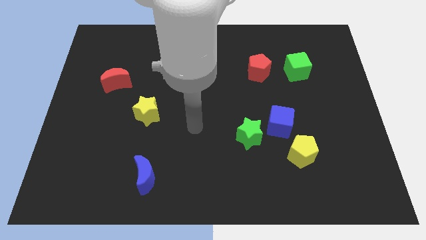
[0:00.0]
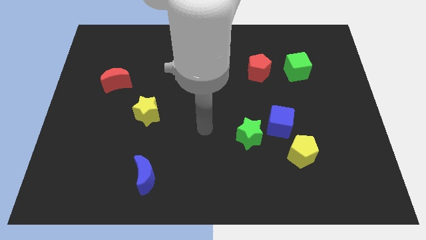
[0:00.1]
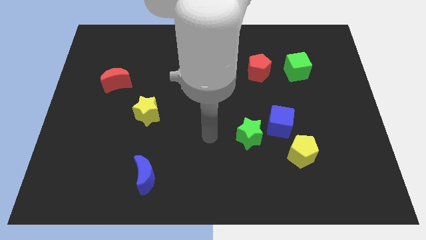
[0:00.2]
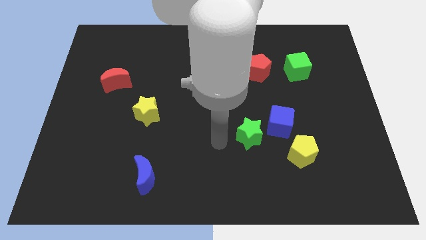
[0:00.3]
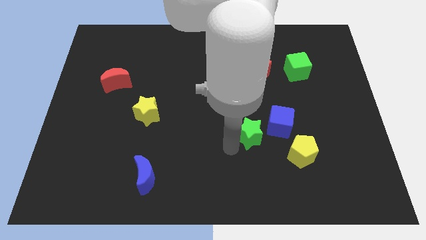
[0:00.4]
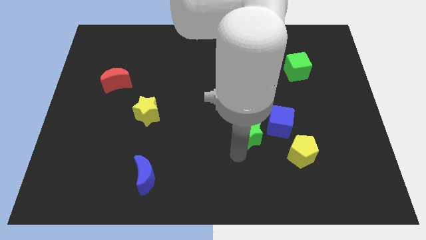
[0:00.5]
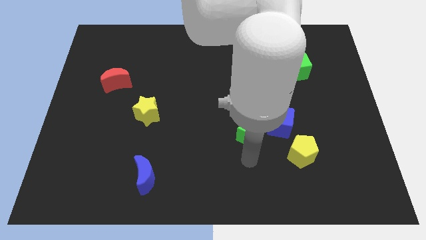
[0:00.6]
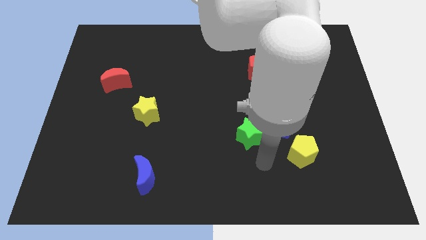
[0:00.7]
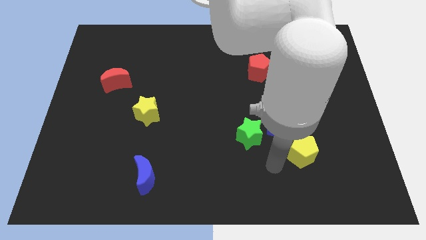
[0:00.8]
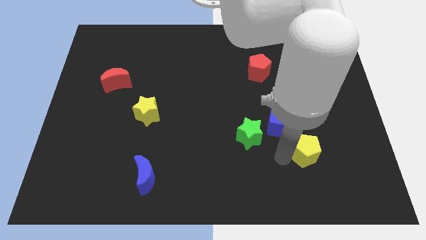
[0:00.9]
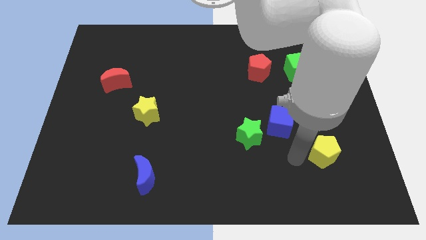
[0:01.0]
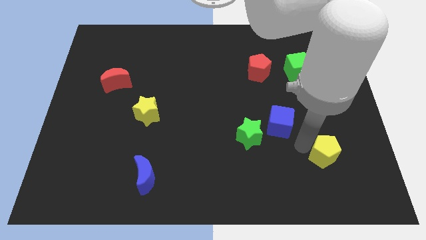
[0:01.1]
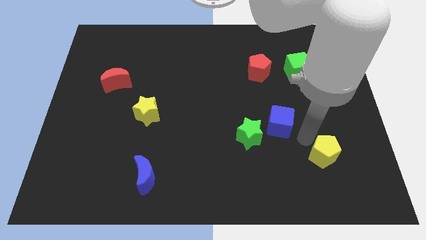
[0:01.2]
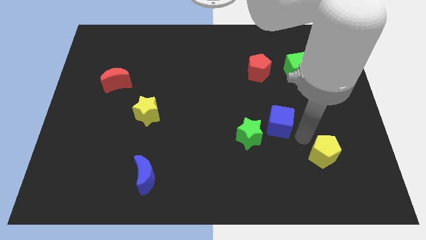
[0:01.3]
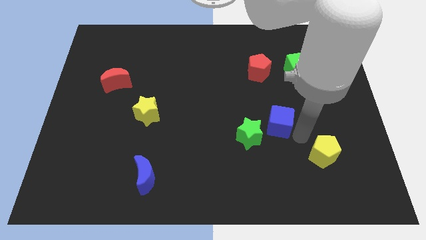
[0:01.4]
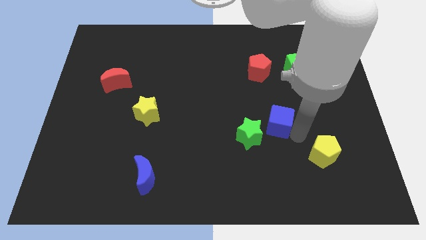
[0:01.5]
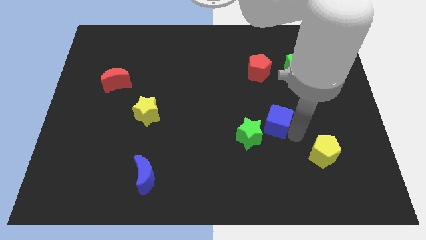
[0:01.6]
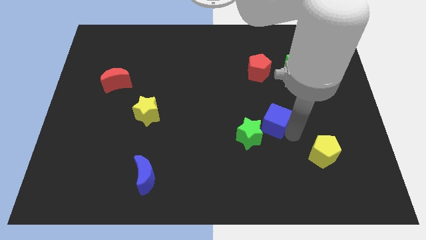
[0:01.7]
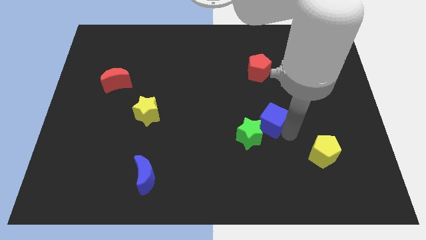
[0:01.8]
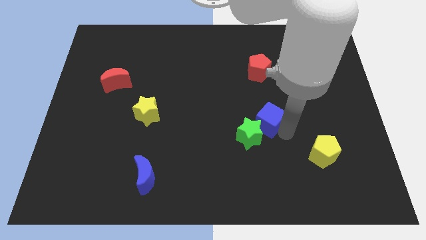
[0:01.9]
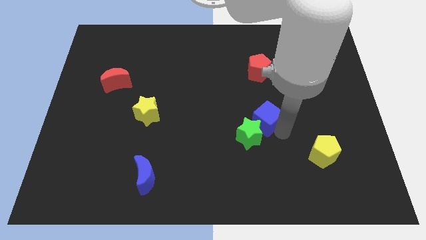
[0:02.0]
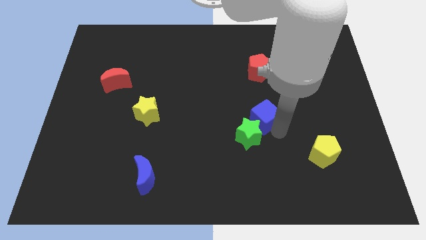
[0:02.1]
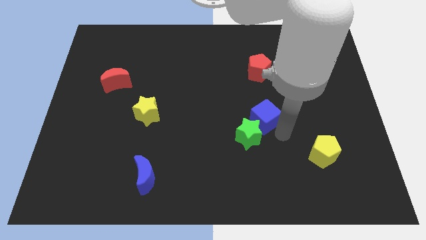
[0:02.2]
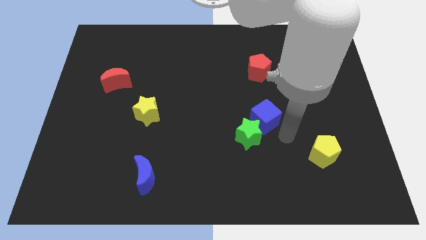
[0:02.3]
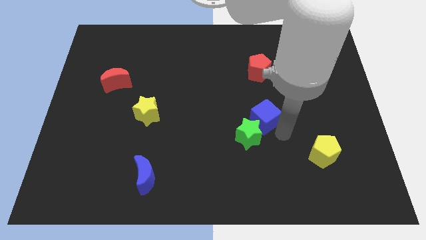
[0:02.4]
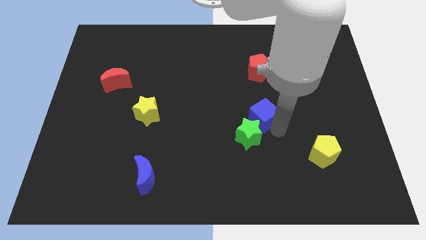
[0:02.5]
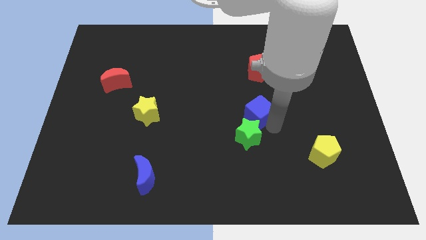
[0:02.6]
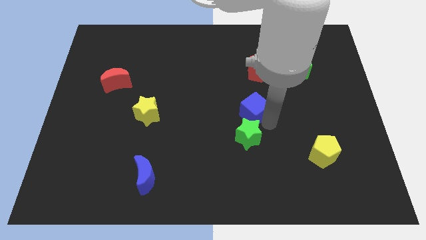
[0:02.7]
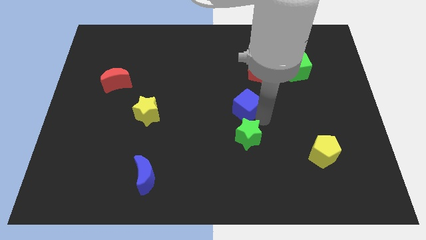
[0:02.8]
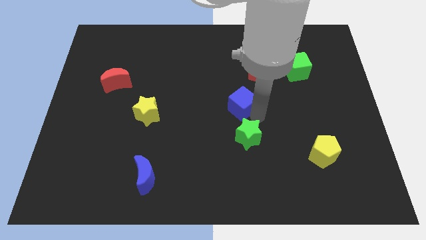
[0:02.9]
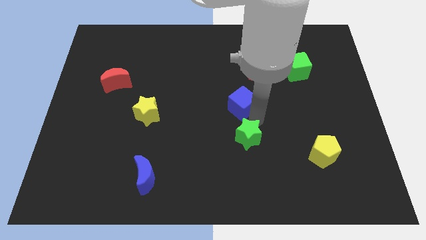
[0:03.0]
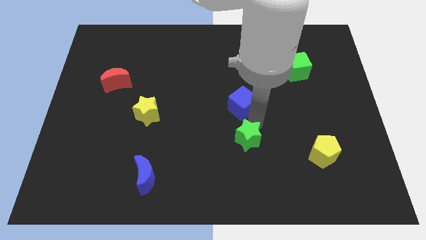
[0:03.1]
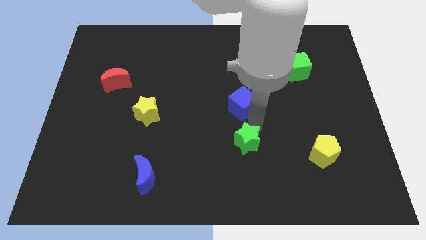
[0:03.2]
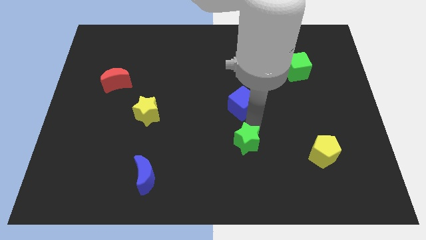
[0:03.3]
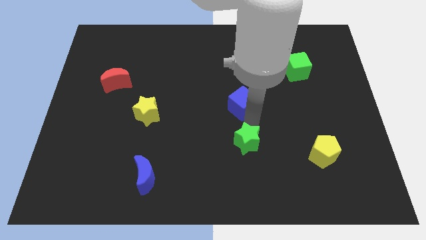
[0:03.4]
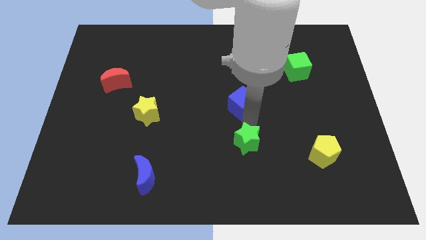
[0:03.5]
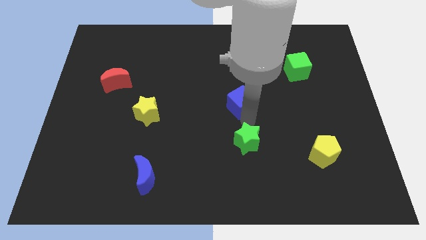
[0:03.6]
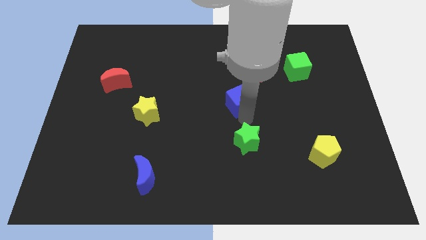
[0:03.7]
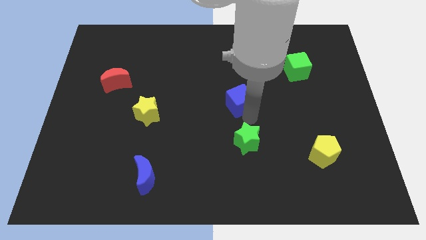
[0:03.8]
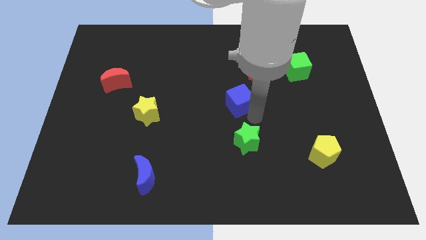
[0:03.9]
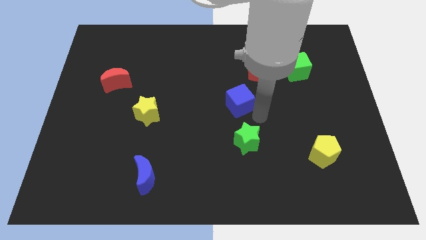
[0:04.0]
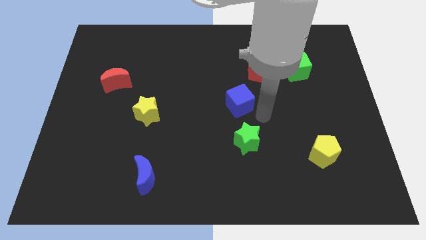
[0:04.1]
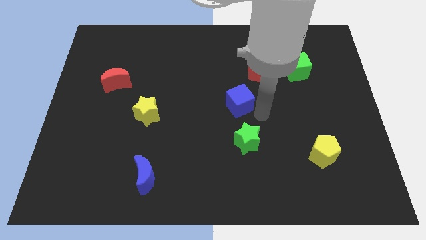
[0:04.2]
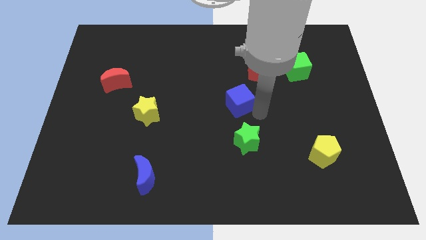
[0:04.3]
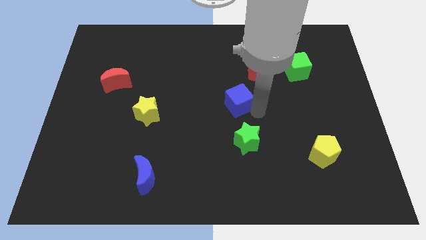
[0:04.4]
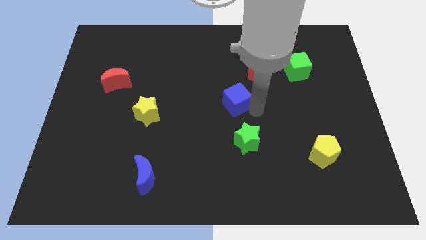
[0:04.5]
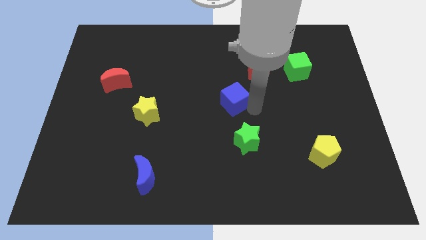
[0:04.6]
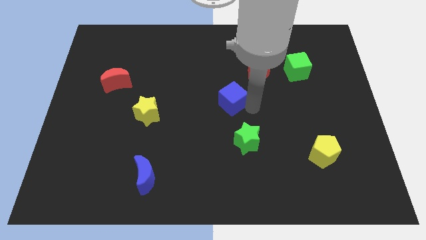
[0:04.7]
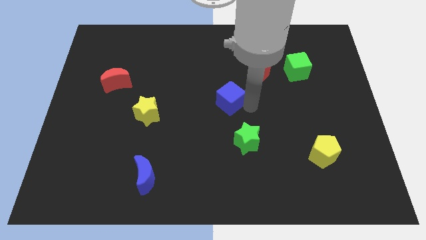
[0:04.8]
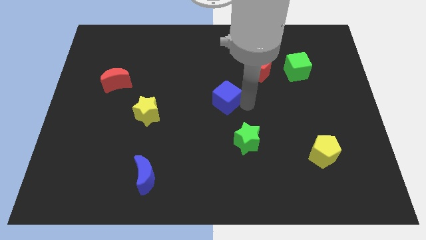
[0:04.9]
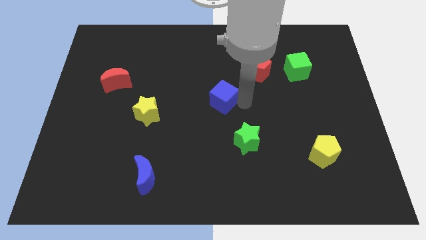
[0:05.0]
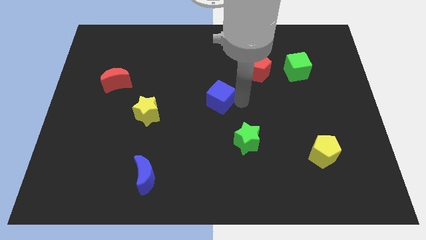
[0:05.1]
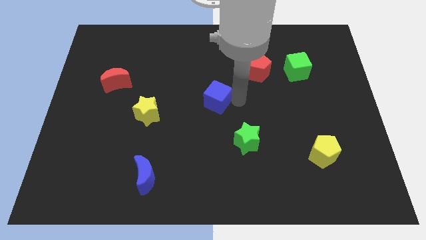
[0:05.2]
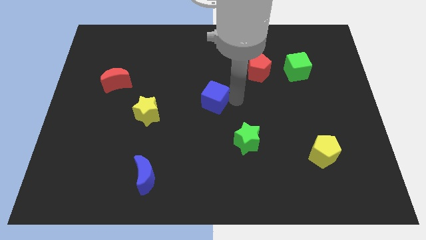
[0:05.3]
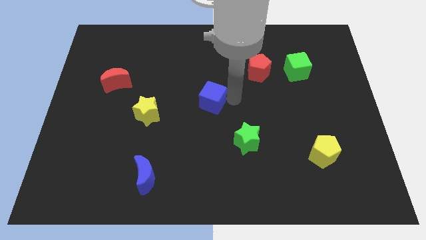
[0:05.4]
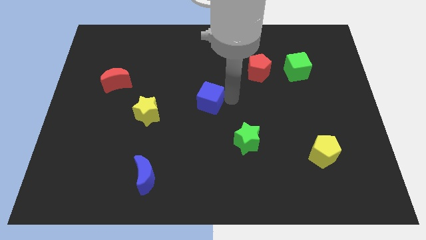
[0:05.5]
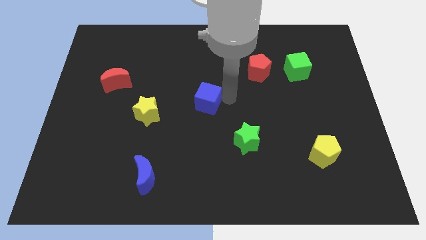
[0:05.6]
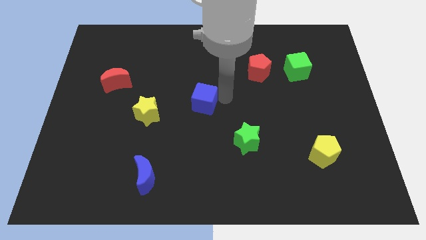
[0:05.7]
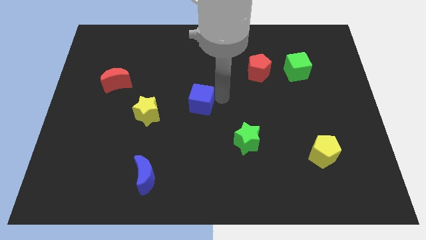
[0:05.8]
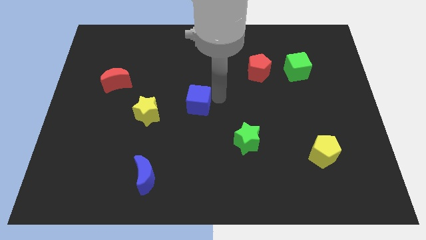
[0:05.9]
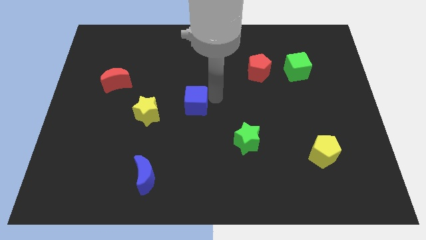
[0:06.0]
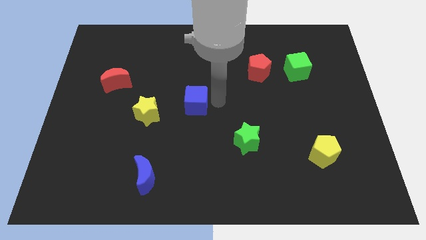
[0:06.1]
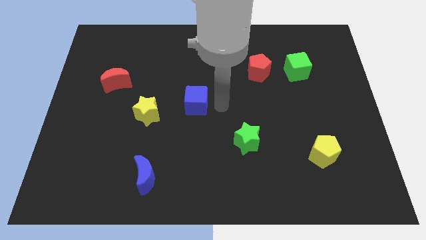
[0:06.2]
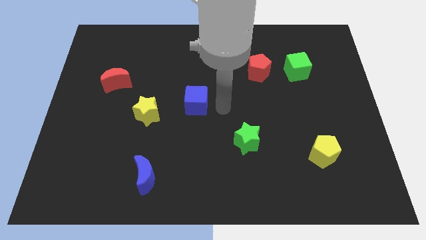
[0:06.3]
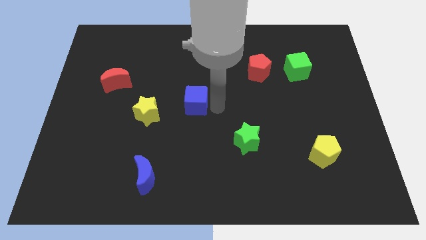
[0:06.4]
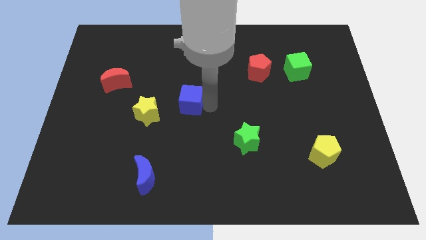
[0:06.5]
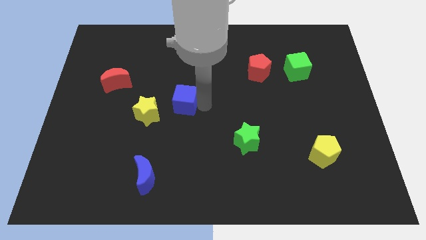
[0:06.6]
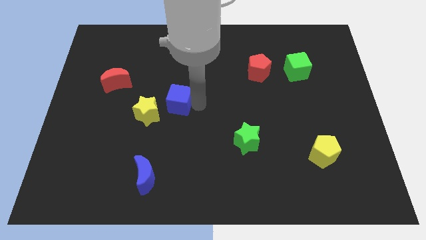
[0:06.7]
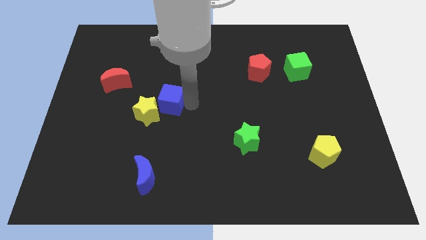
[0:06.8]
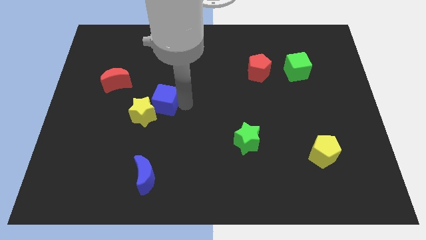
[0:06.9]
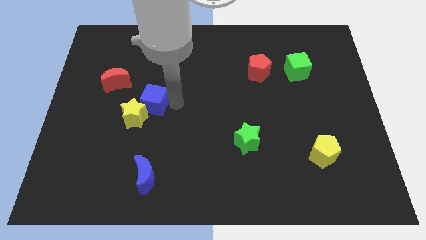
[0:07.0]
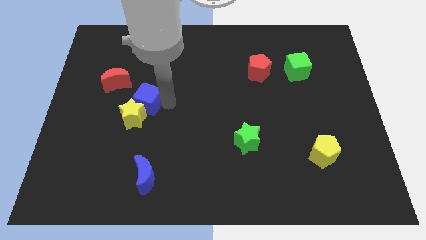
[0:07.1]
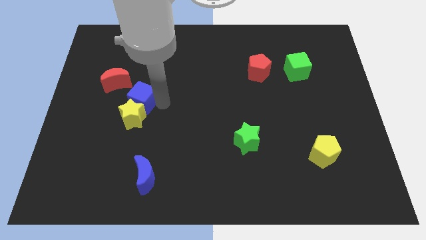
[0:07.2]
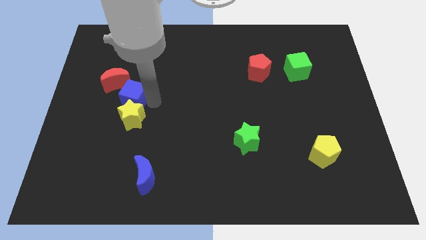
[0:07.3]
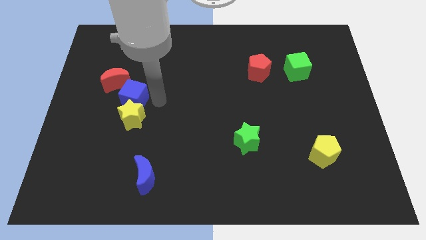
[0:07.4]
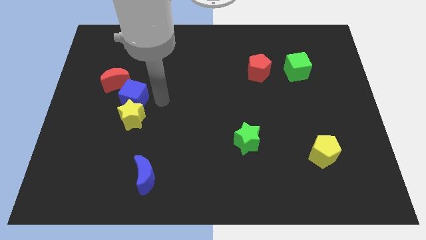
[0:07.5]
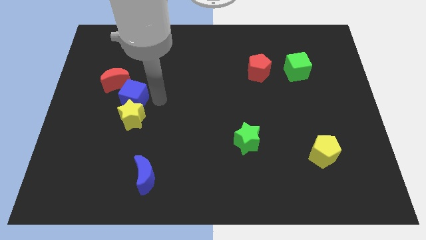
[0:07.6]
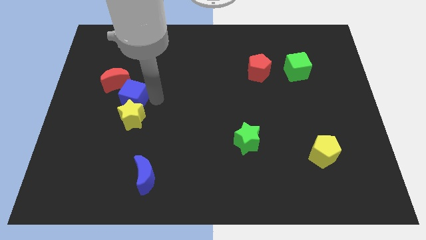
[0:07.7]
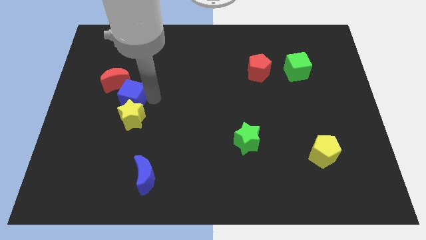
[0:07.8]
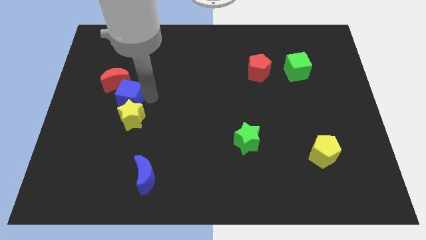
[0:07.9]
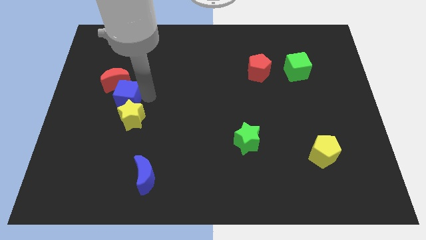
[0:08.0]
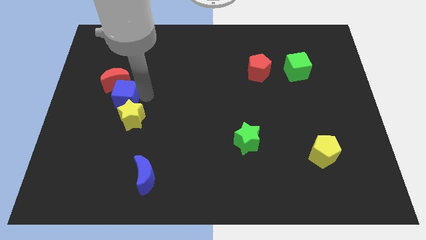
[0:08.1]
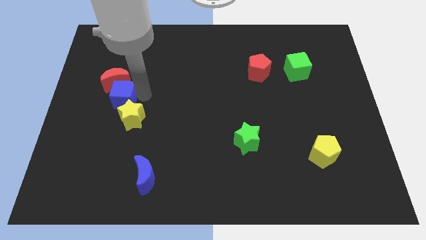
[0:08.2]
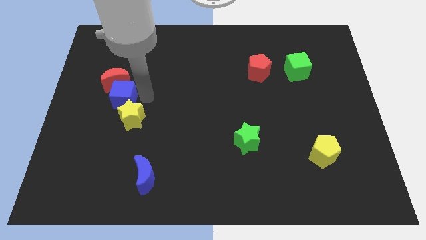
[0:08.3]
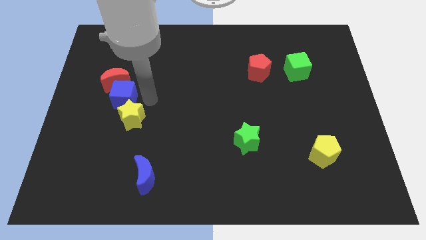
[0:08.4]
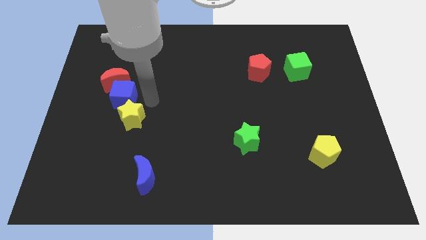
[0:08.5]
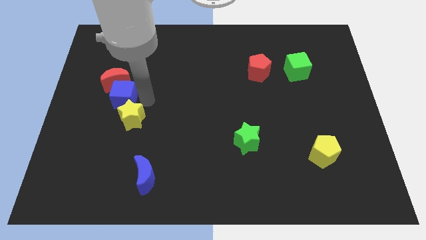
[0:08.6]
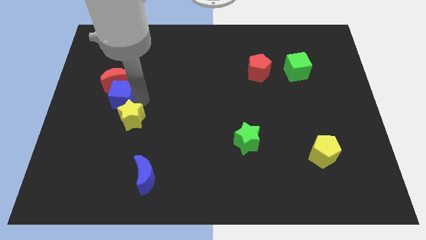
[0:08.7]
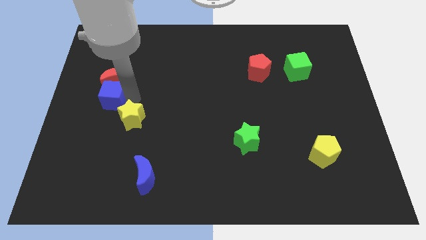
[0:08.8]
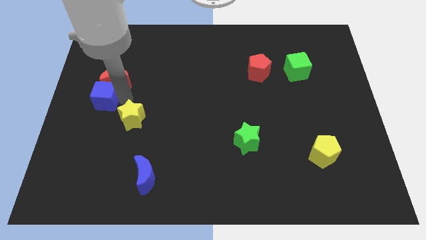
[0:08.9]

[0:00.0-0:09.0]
push the blue cube to the center left
